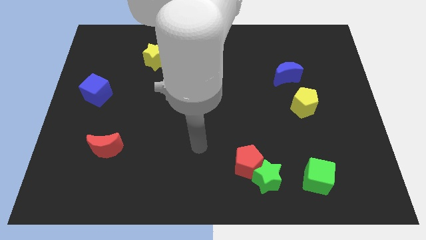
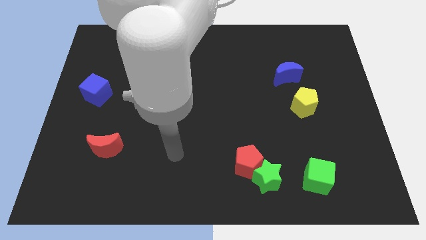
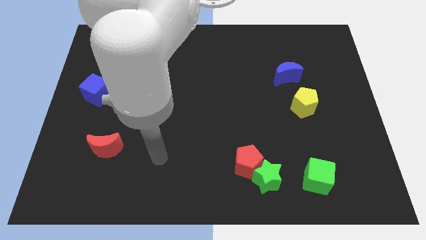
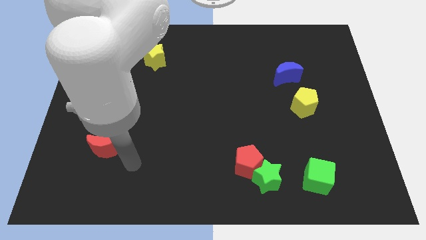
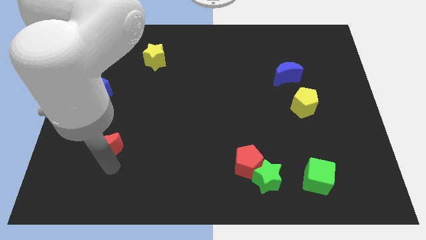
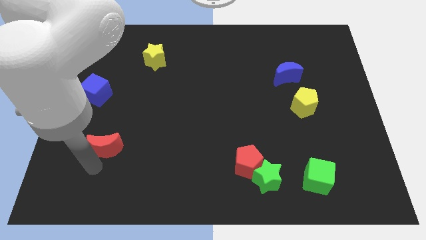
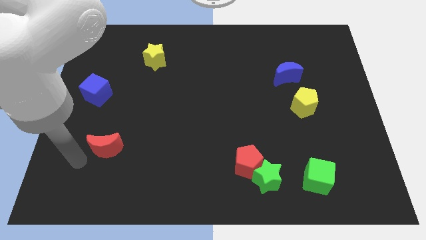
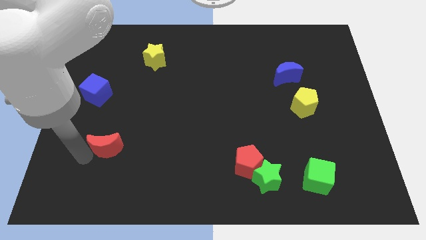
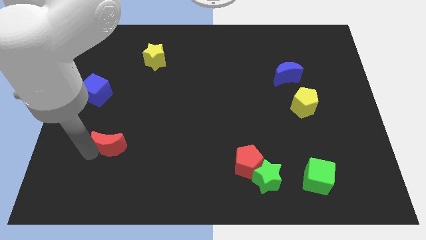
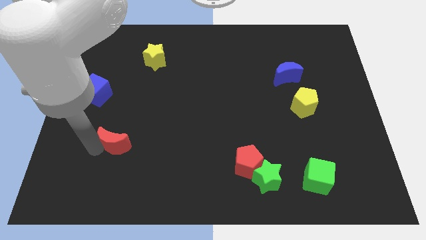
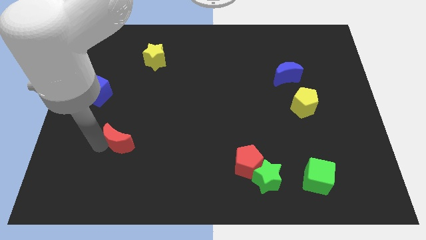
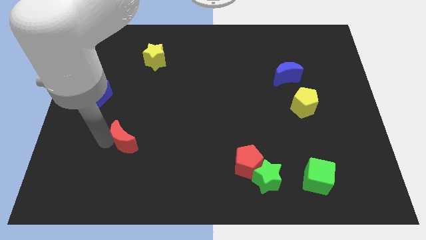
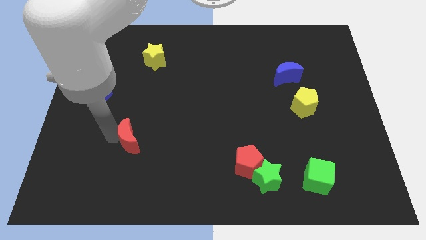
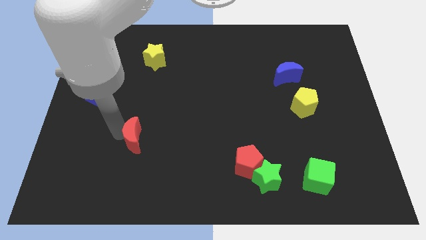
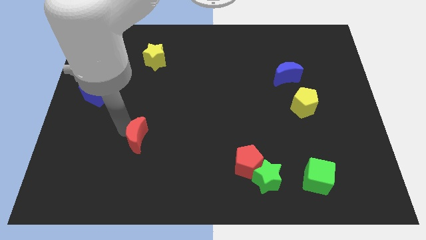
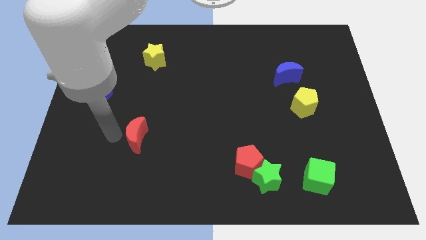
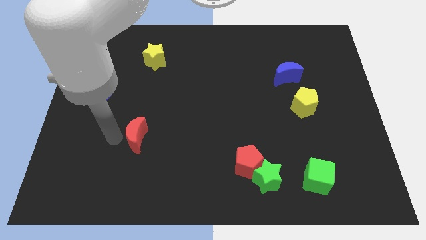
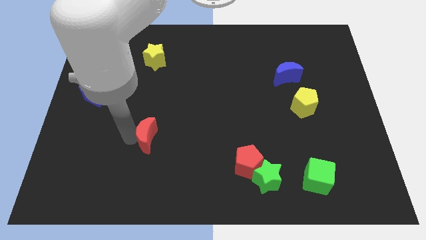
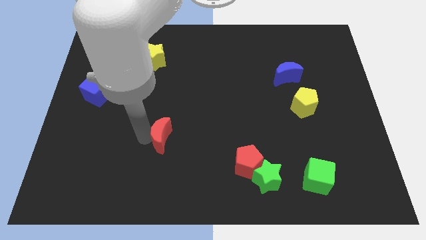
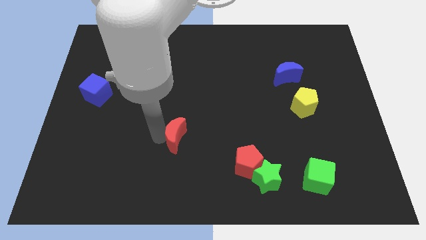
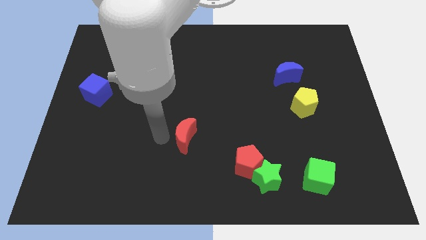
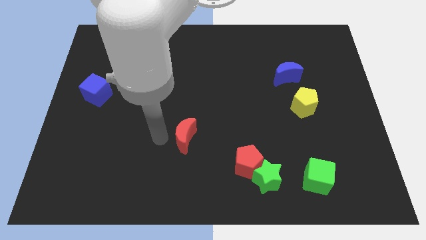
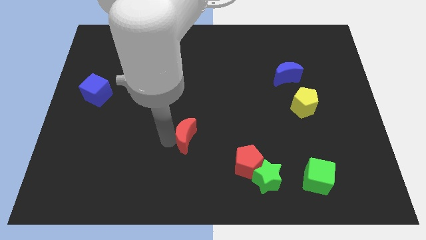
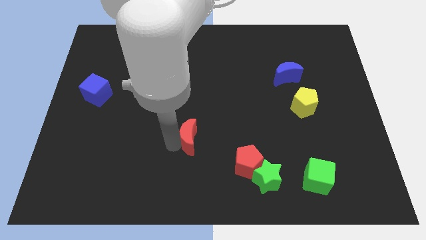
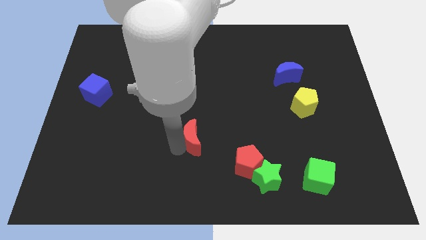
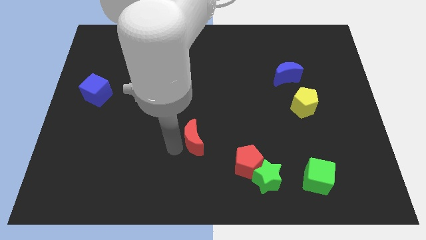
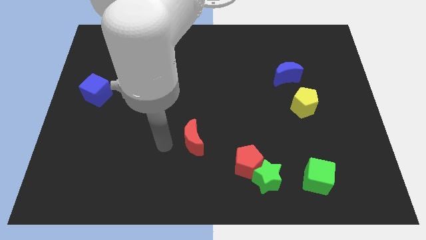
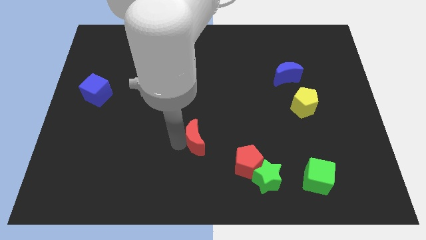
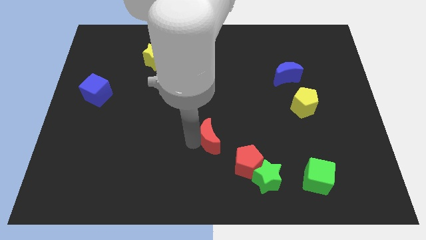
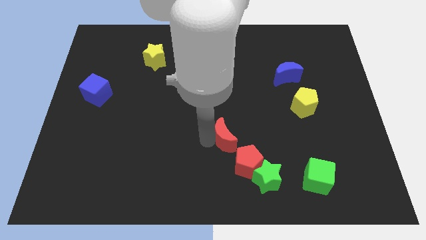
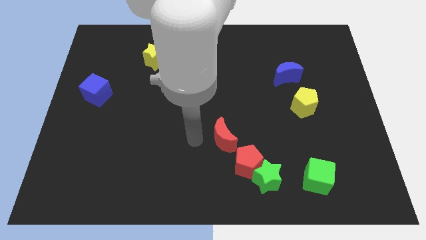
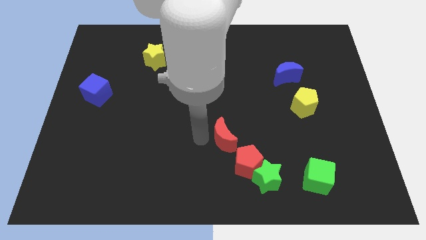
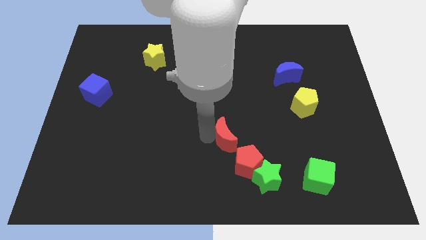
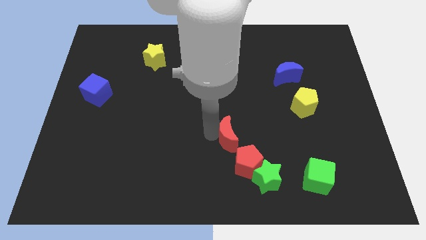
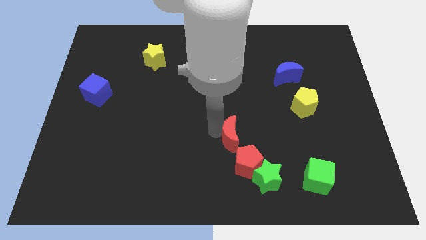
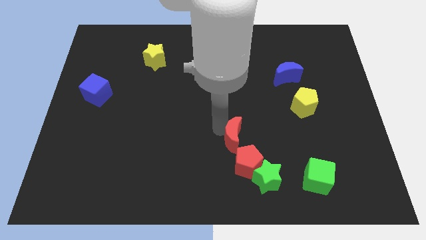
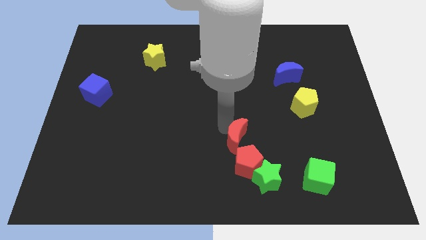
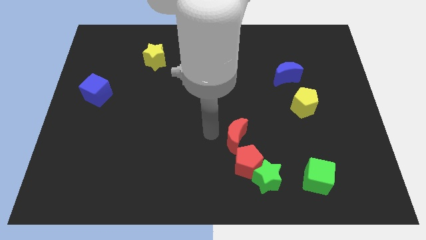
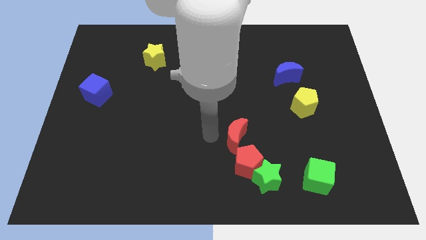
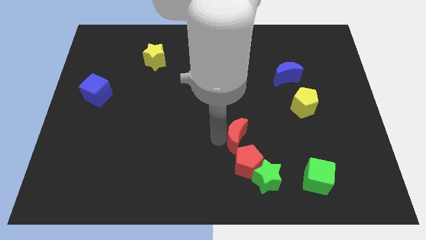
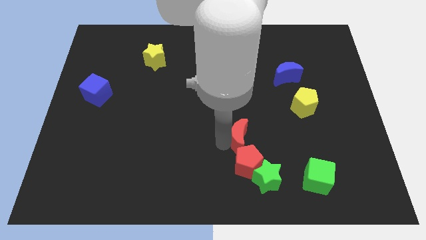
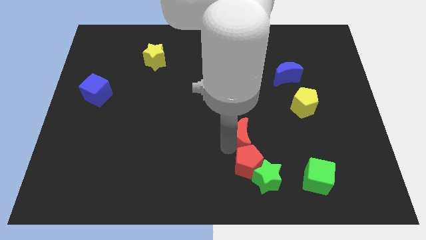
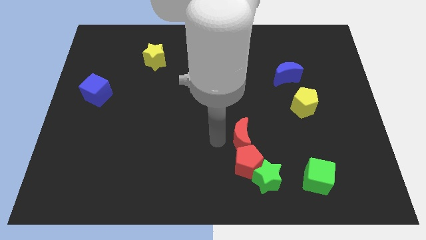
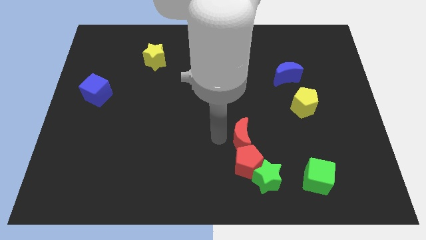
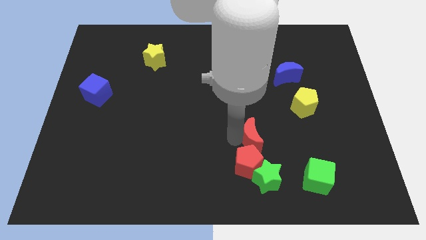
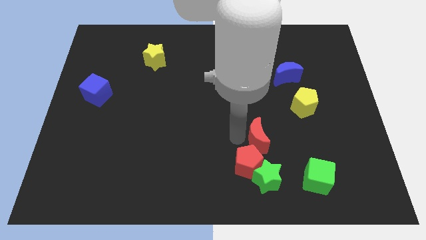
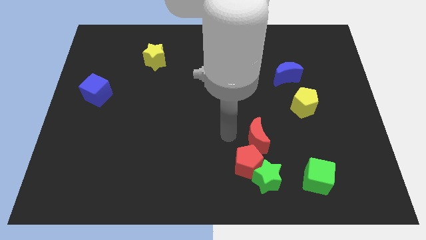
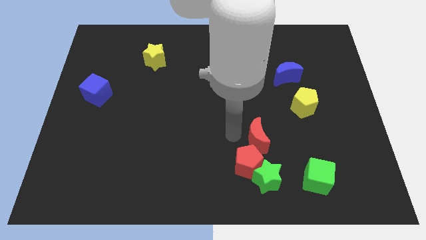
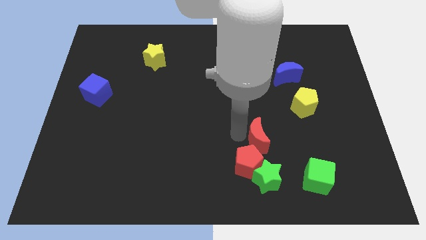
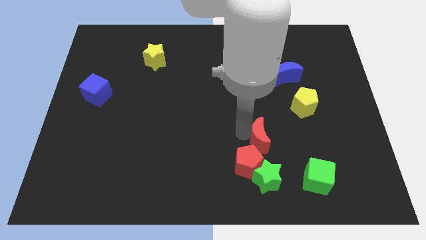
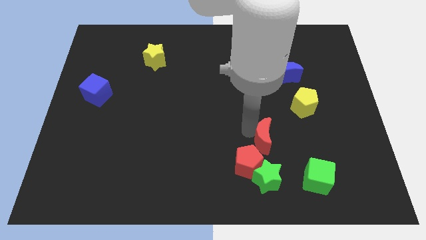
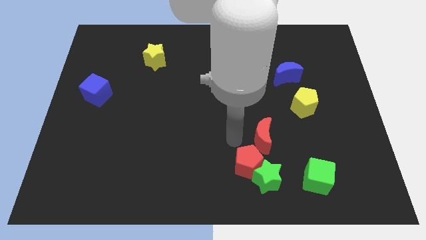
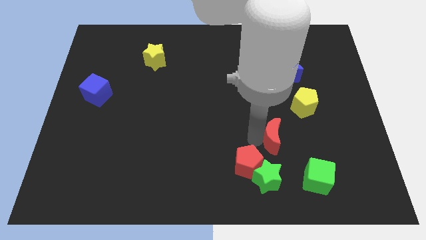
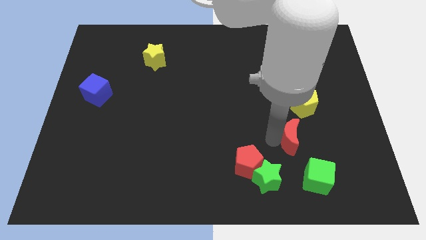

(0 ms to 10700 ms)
put the red moon to the top of the green cube

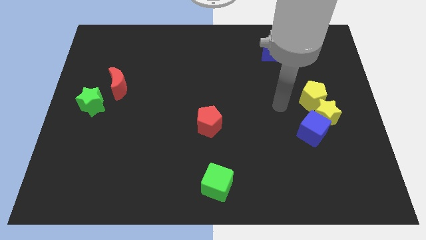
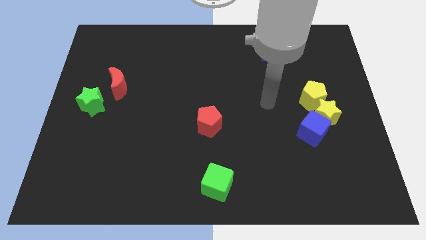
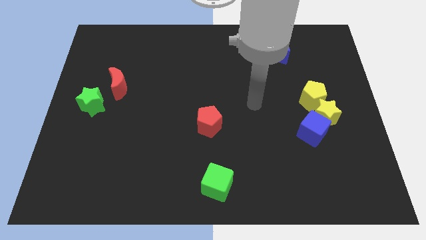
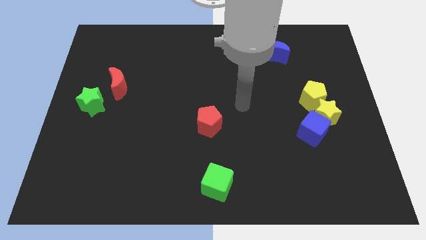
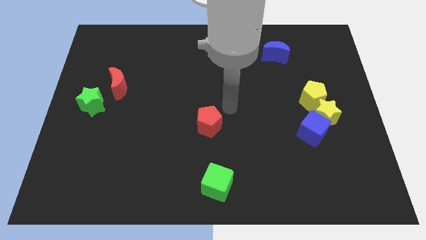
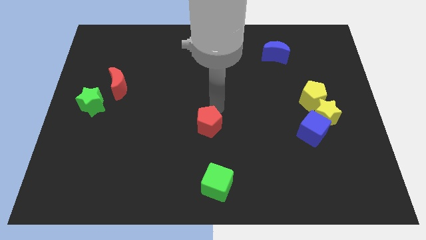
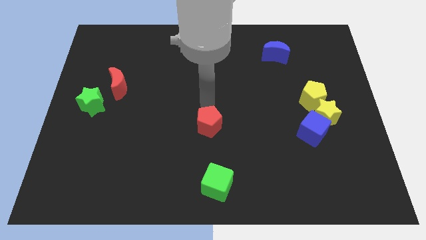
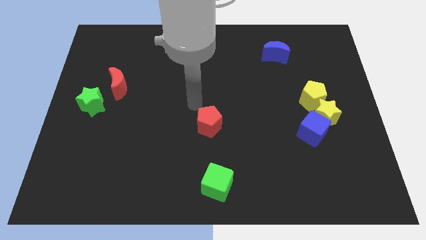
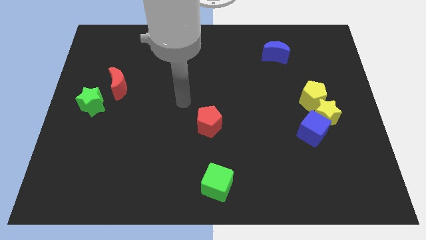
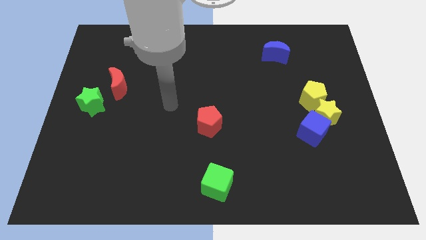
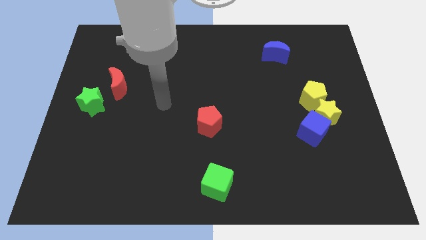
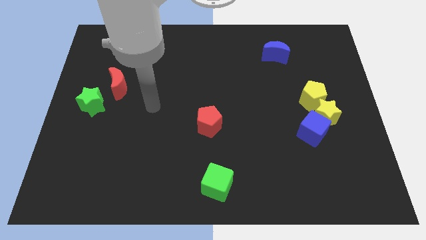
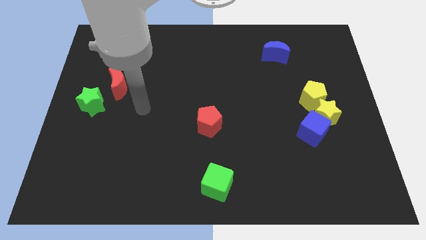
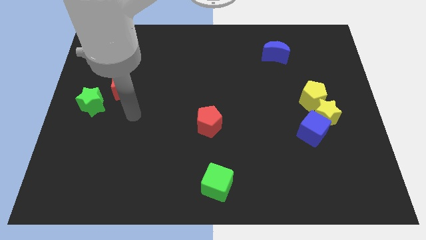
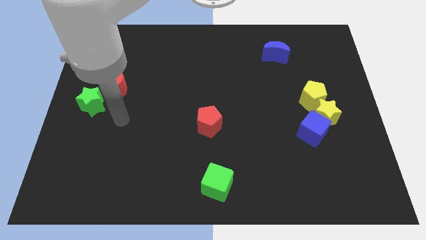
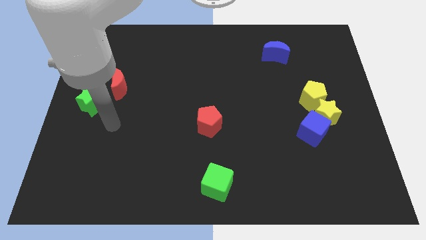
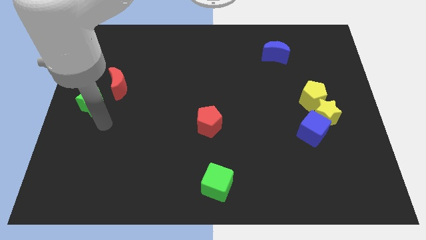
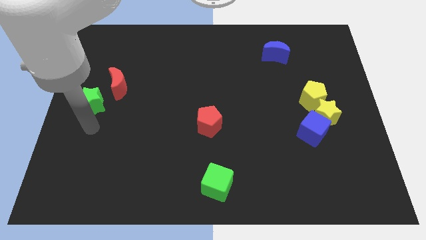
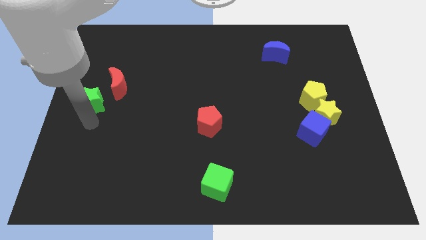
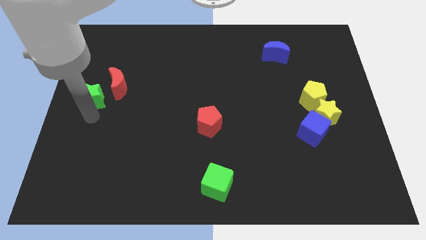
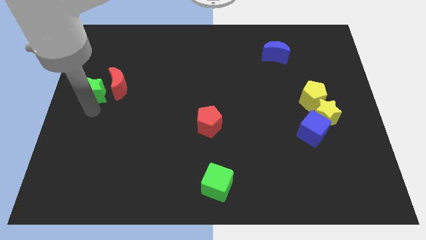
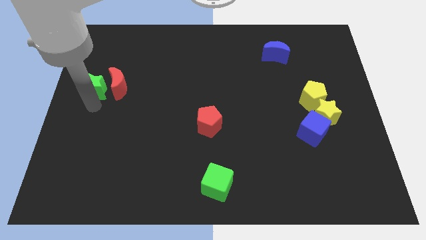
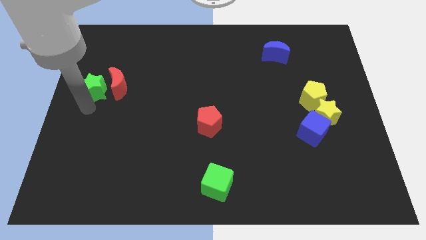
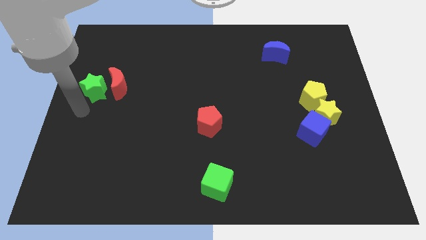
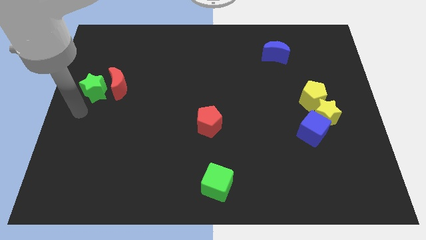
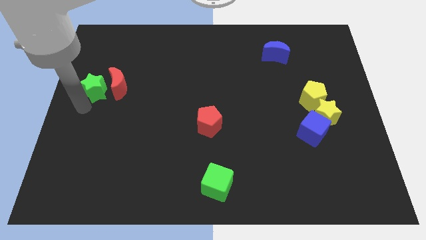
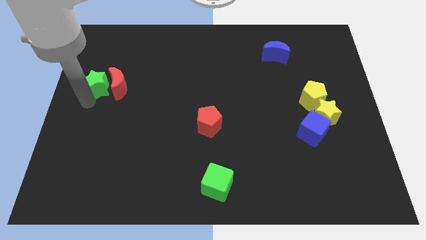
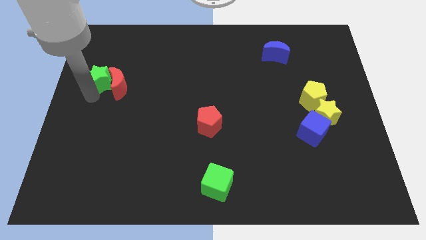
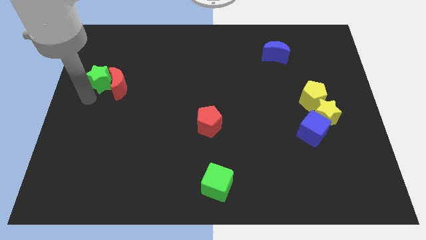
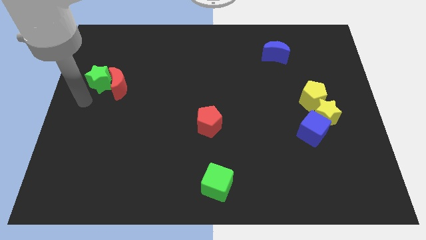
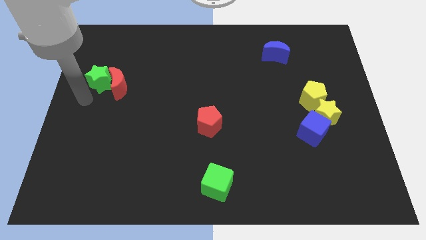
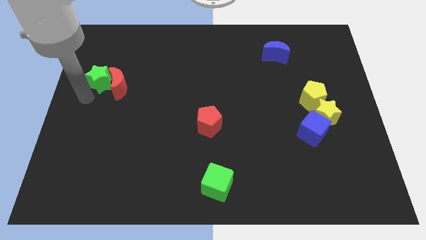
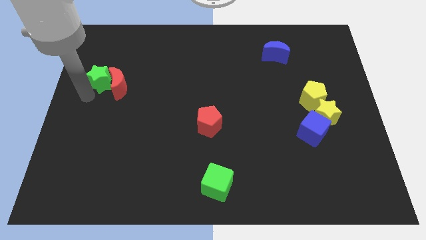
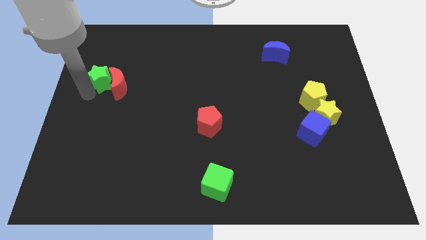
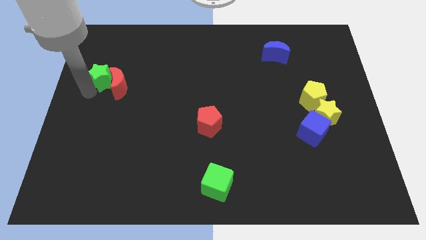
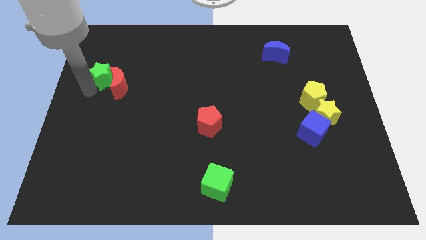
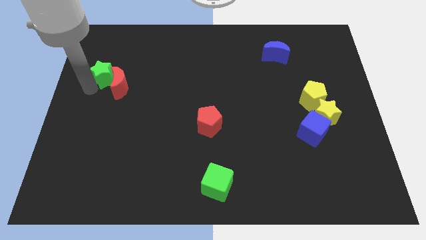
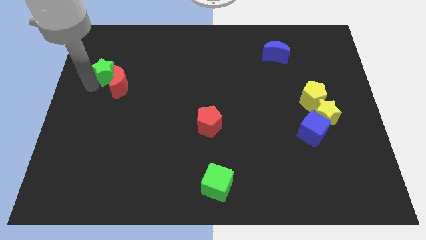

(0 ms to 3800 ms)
move the green star above the red moon
